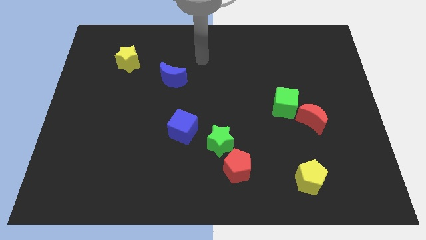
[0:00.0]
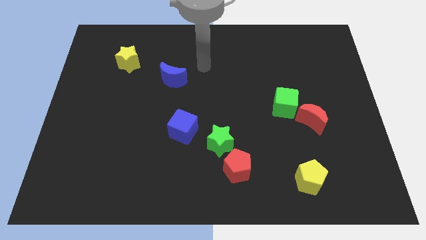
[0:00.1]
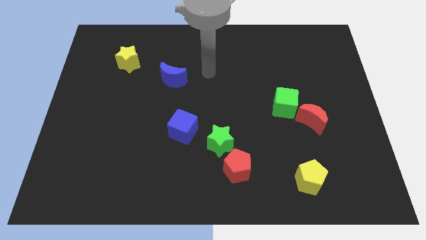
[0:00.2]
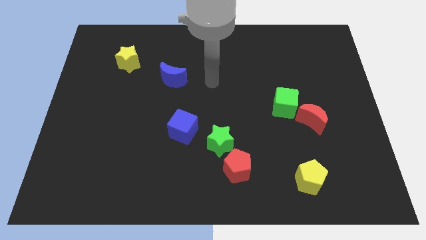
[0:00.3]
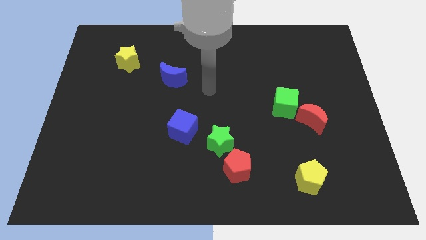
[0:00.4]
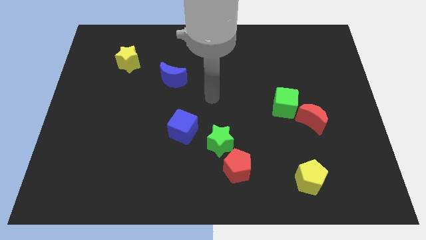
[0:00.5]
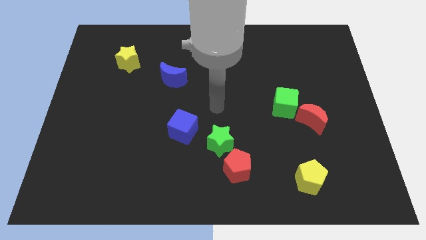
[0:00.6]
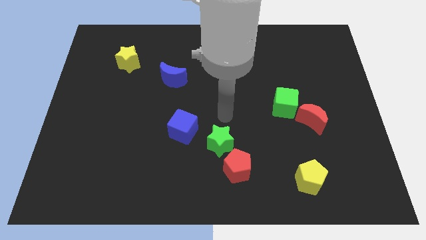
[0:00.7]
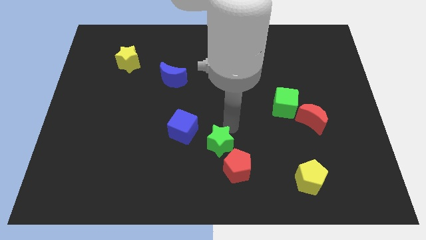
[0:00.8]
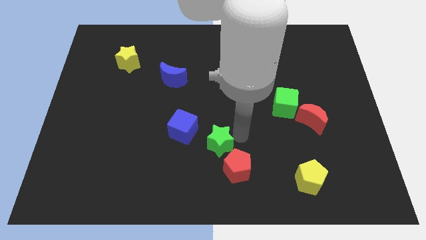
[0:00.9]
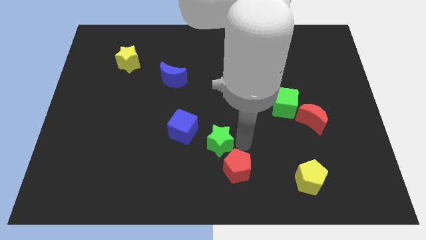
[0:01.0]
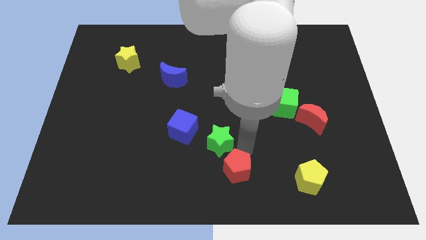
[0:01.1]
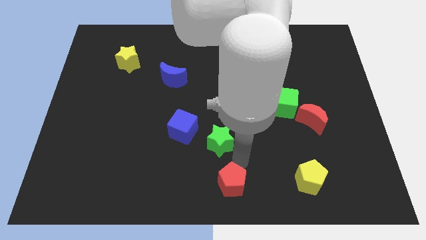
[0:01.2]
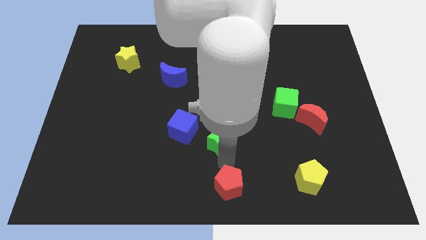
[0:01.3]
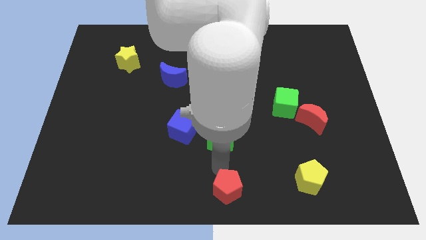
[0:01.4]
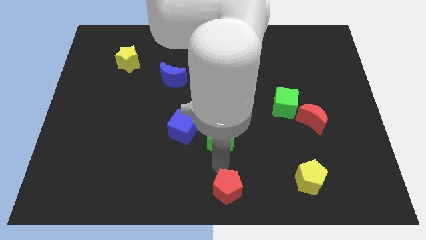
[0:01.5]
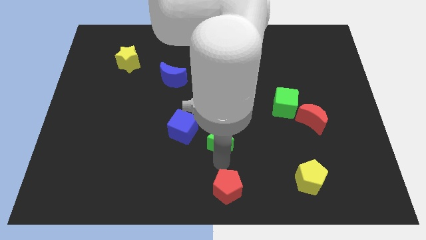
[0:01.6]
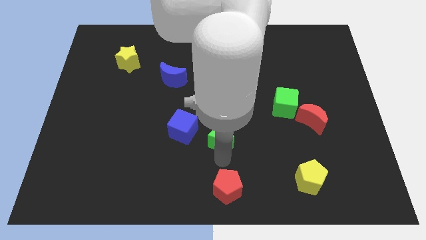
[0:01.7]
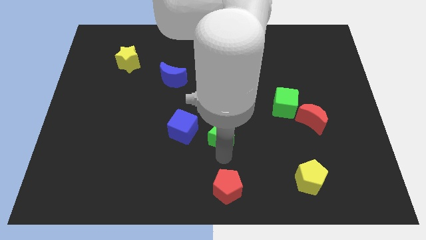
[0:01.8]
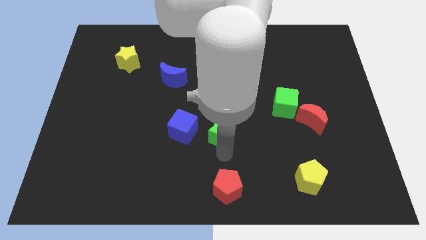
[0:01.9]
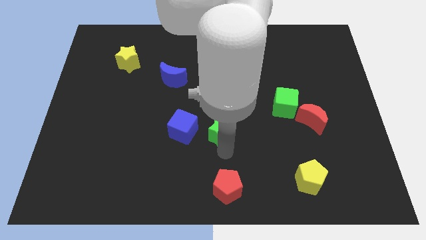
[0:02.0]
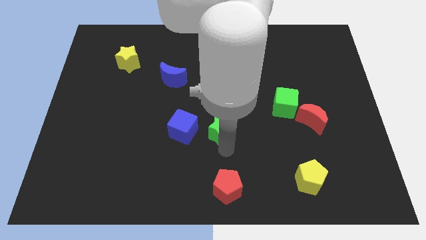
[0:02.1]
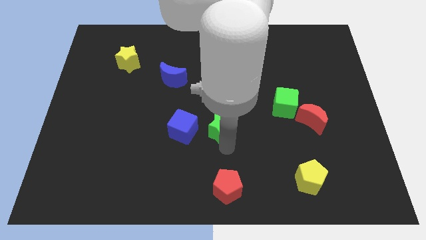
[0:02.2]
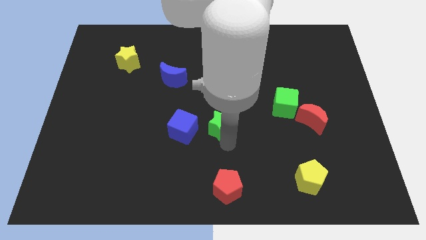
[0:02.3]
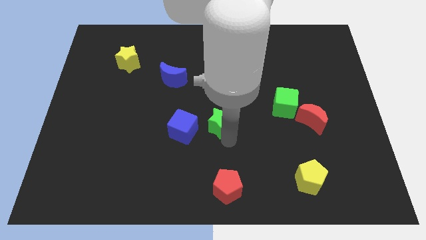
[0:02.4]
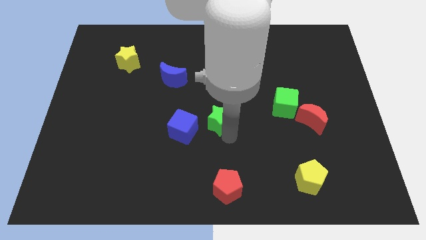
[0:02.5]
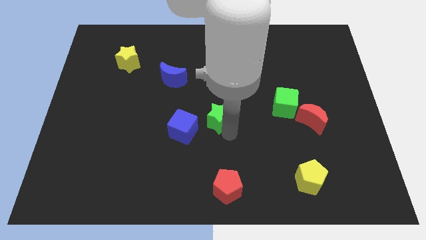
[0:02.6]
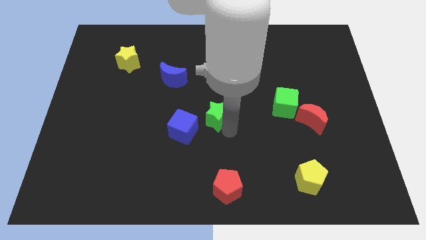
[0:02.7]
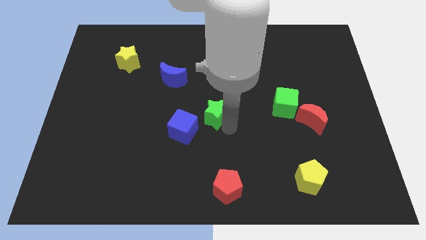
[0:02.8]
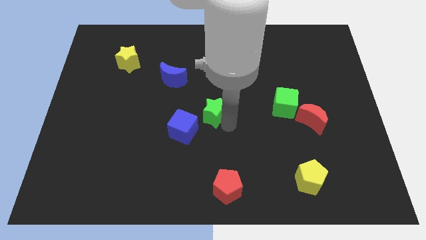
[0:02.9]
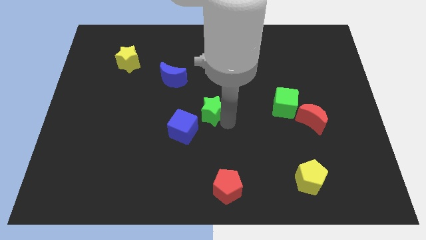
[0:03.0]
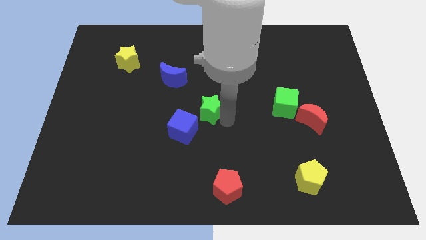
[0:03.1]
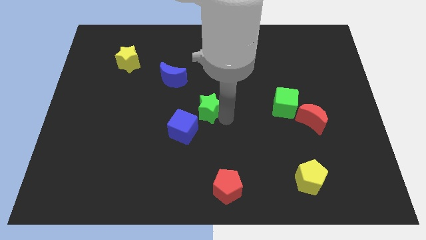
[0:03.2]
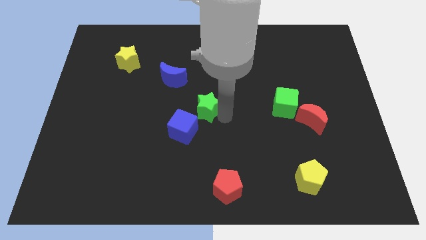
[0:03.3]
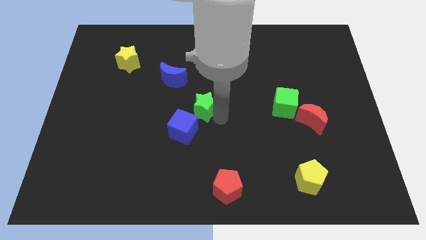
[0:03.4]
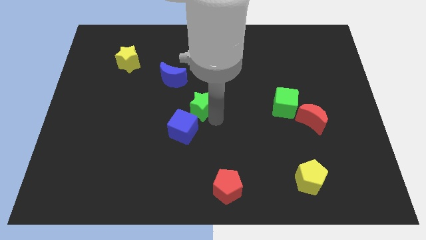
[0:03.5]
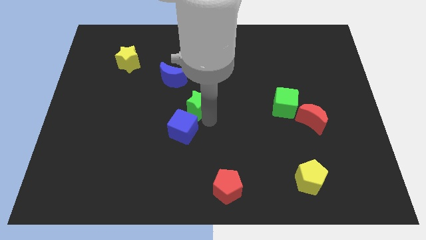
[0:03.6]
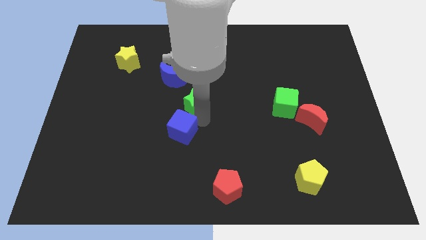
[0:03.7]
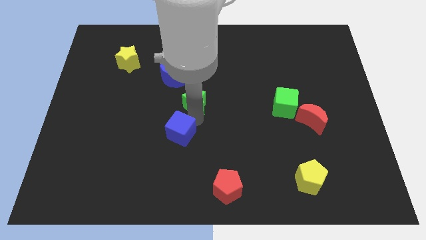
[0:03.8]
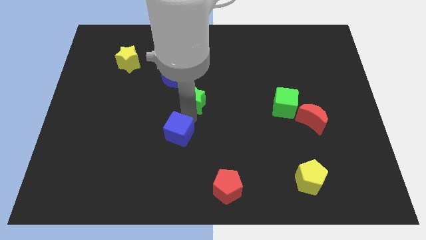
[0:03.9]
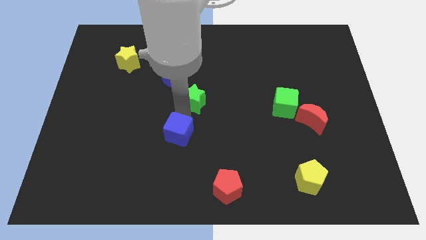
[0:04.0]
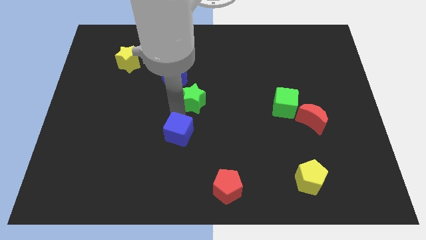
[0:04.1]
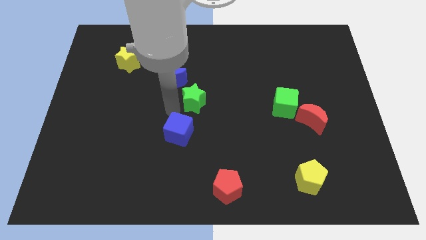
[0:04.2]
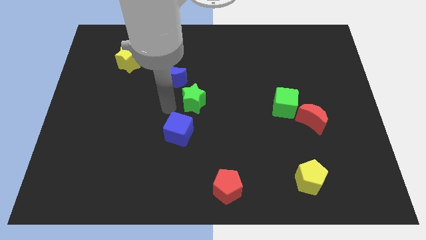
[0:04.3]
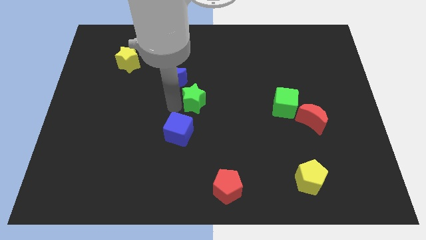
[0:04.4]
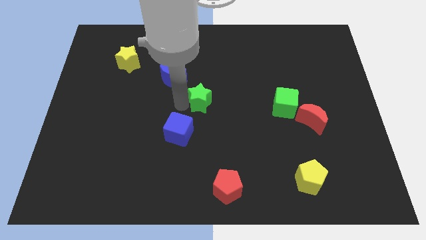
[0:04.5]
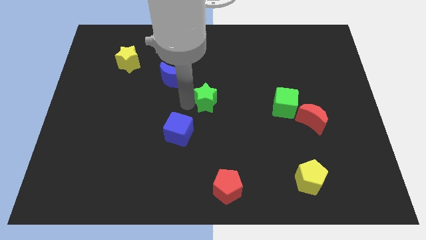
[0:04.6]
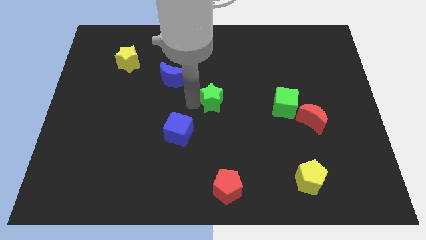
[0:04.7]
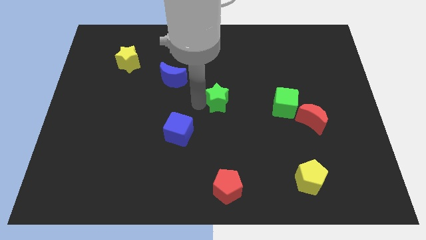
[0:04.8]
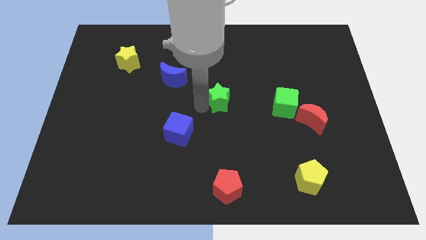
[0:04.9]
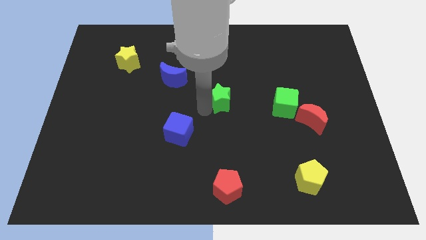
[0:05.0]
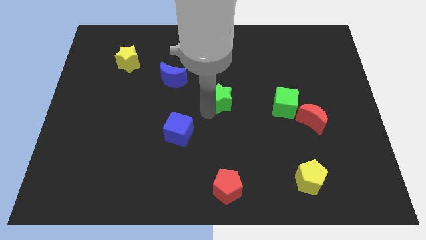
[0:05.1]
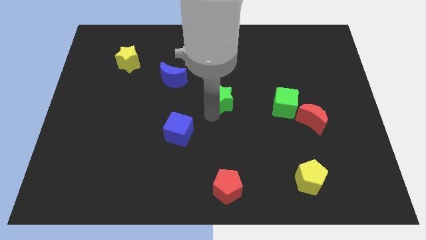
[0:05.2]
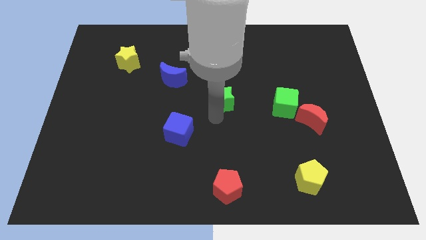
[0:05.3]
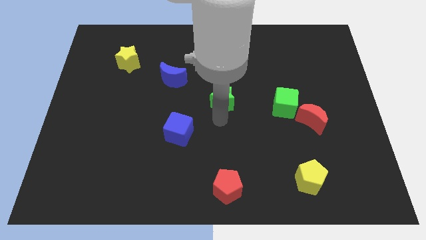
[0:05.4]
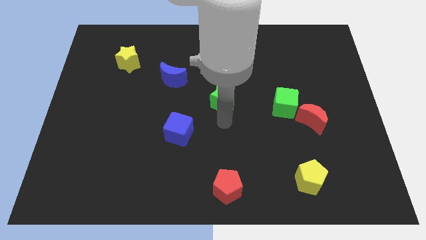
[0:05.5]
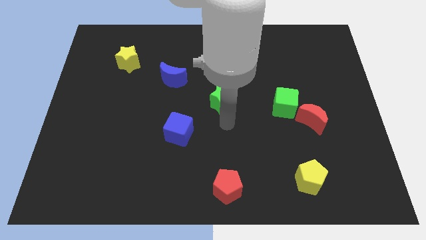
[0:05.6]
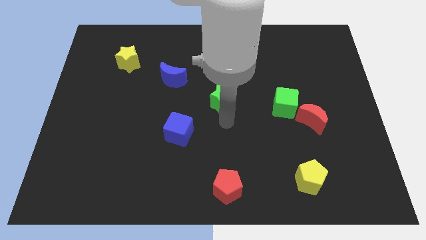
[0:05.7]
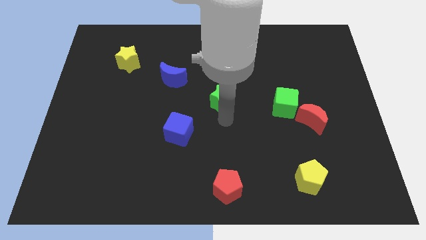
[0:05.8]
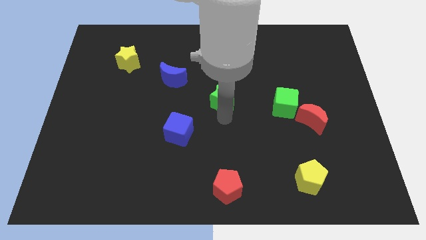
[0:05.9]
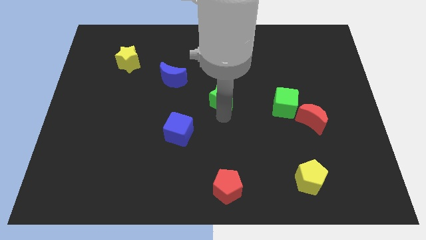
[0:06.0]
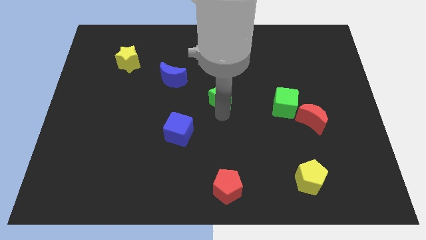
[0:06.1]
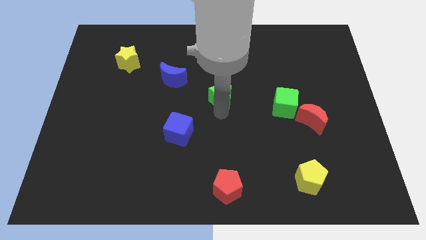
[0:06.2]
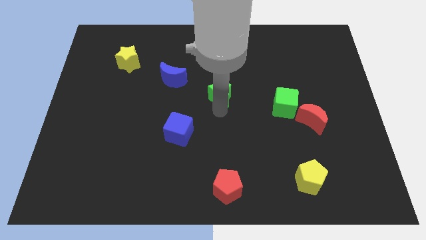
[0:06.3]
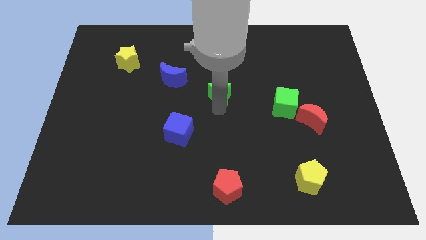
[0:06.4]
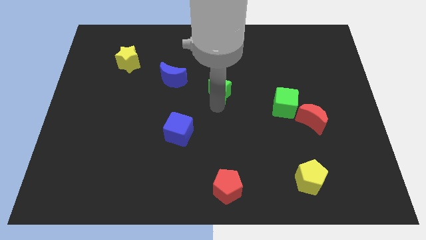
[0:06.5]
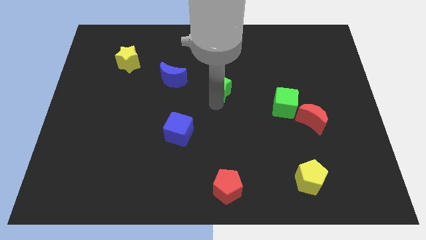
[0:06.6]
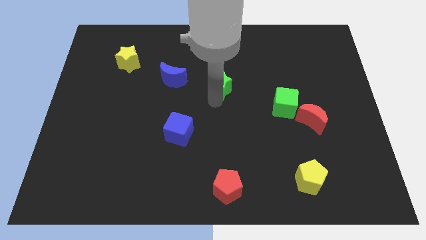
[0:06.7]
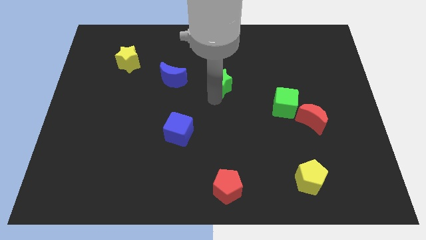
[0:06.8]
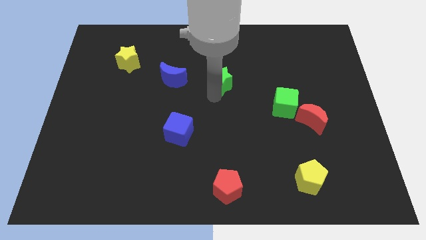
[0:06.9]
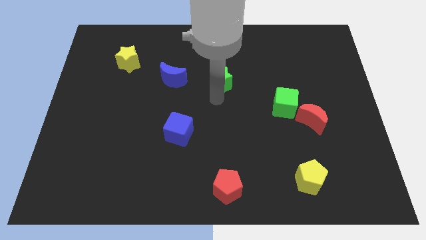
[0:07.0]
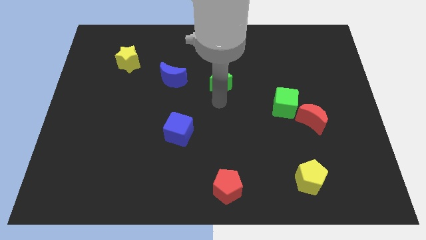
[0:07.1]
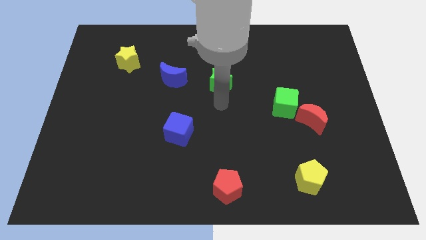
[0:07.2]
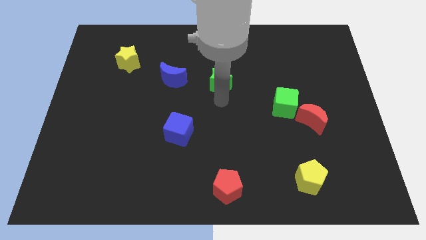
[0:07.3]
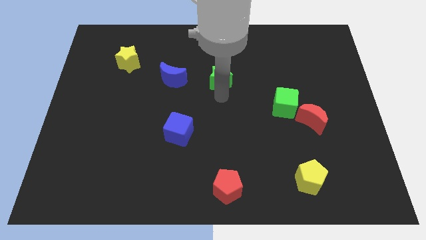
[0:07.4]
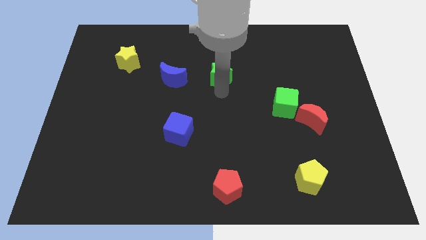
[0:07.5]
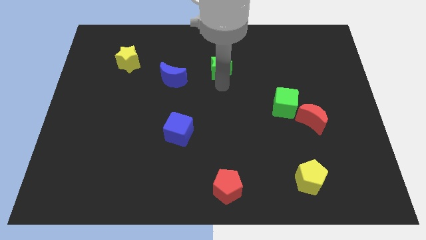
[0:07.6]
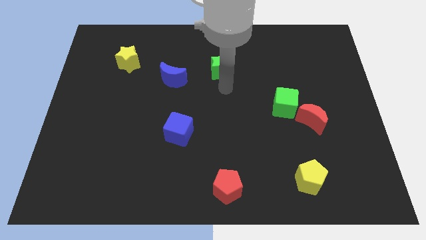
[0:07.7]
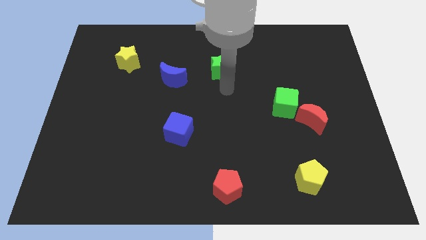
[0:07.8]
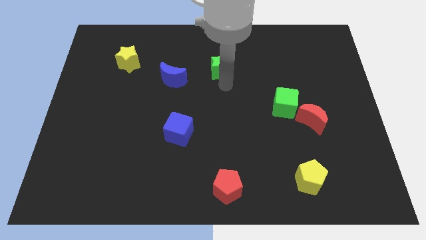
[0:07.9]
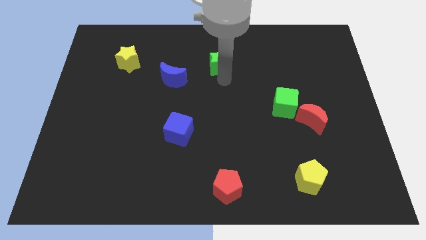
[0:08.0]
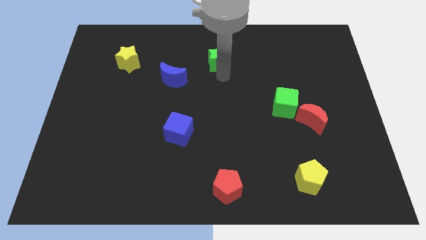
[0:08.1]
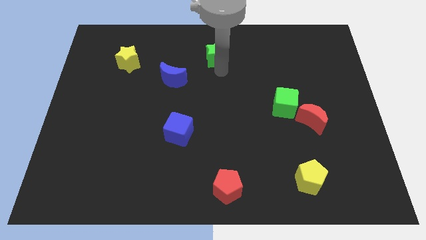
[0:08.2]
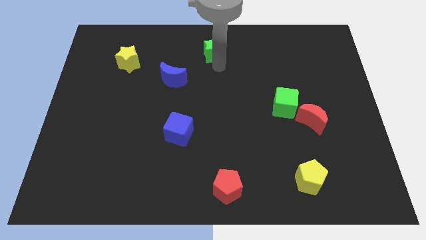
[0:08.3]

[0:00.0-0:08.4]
move the green star to the towards your base

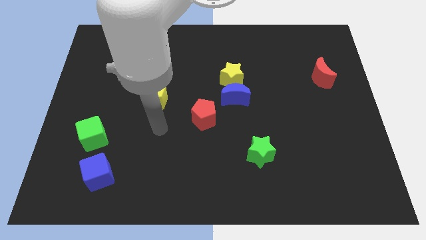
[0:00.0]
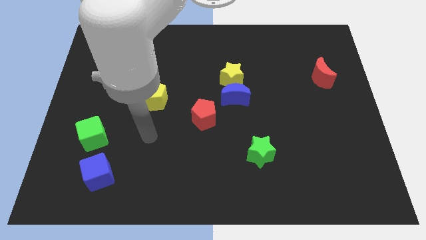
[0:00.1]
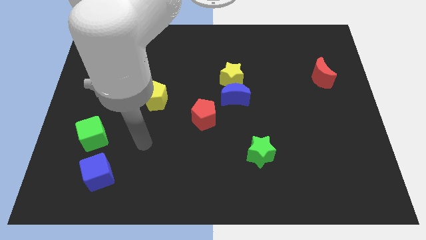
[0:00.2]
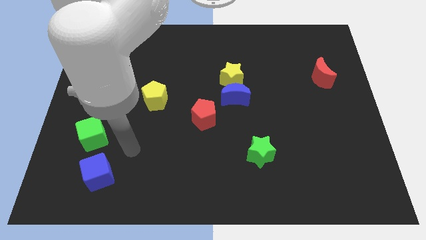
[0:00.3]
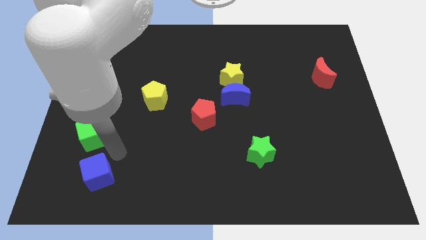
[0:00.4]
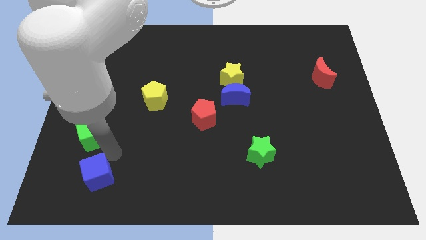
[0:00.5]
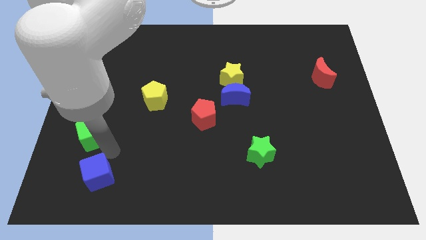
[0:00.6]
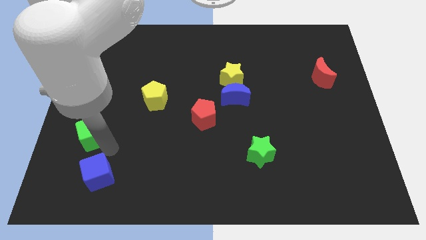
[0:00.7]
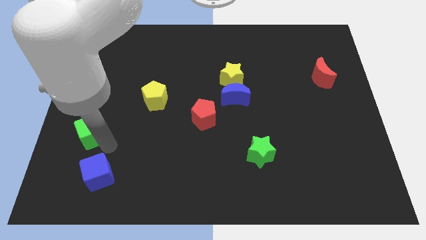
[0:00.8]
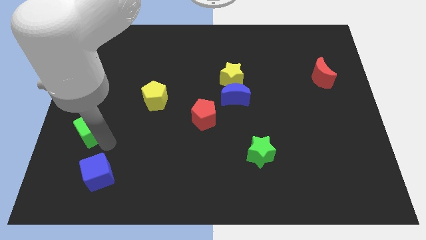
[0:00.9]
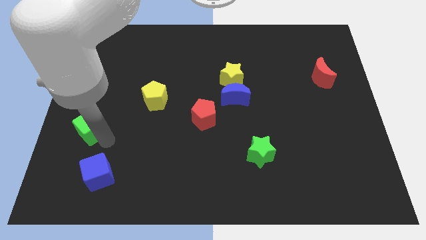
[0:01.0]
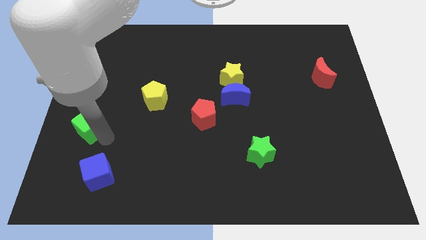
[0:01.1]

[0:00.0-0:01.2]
put the green cube to the center left
